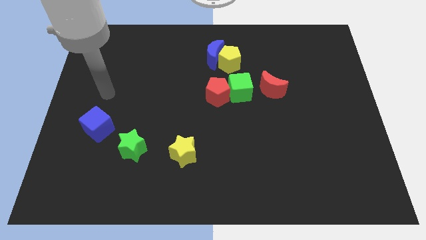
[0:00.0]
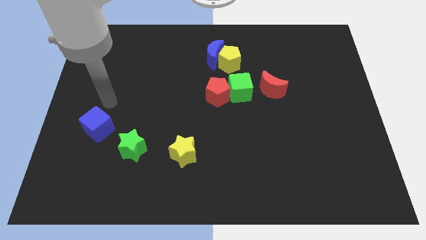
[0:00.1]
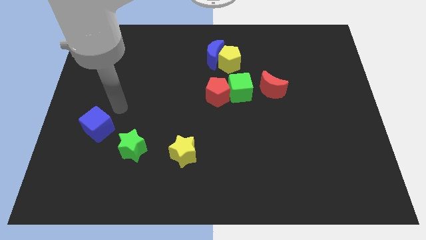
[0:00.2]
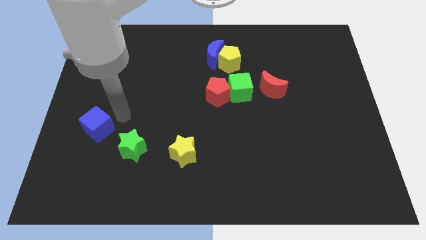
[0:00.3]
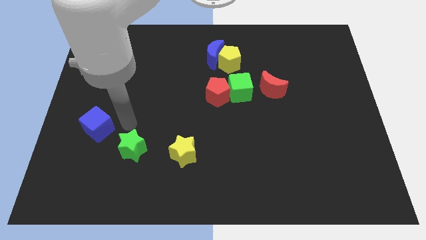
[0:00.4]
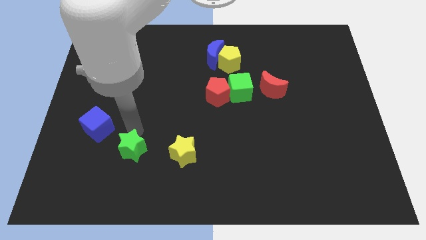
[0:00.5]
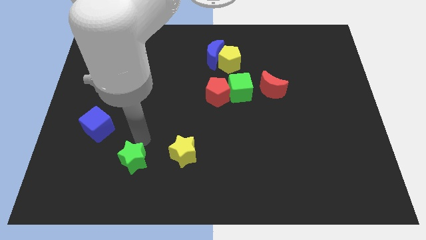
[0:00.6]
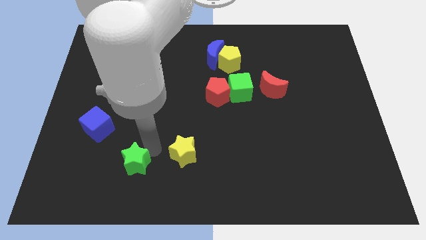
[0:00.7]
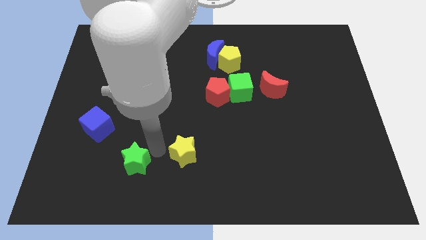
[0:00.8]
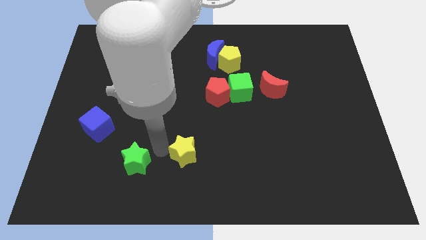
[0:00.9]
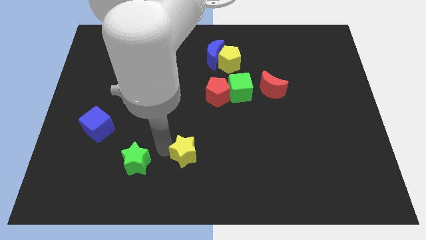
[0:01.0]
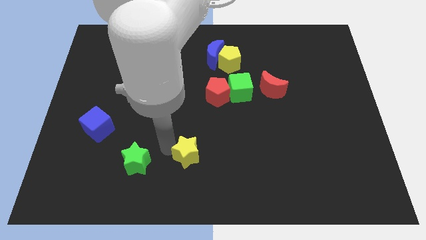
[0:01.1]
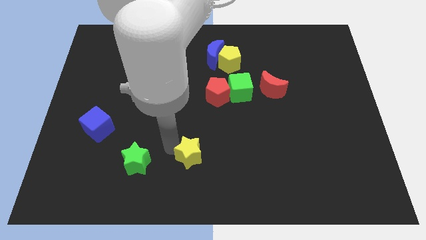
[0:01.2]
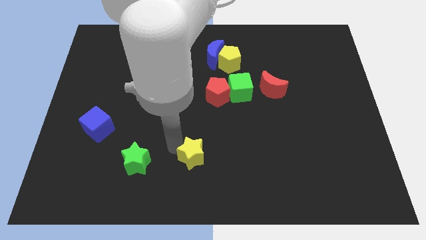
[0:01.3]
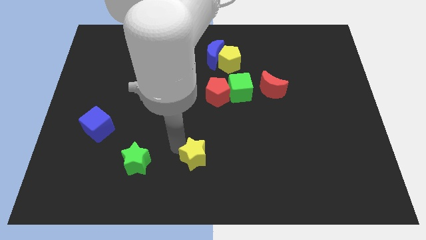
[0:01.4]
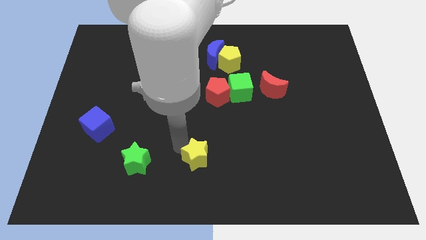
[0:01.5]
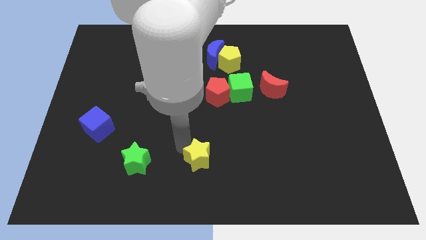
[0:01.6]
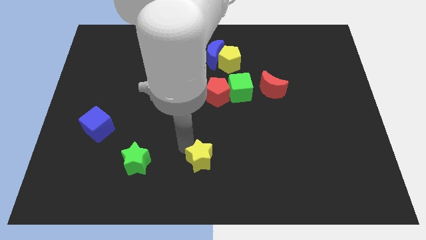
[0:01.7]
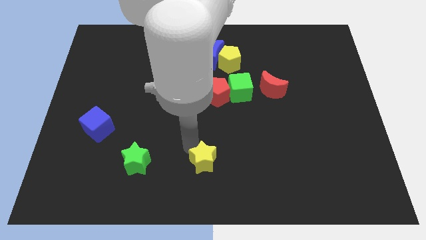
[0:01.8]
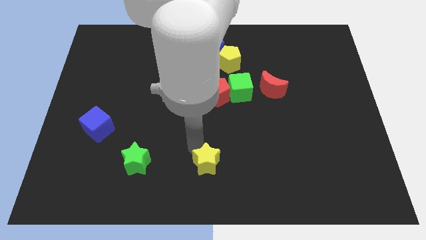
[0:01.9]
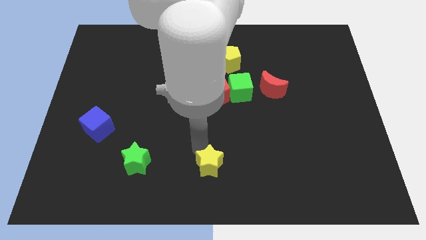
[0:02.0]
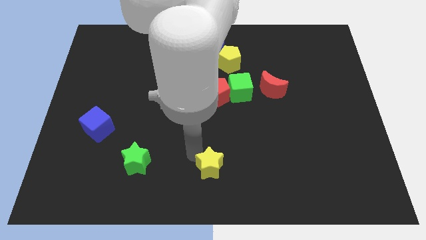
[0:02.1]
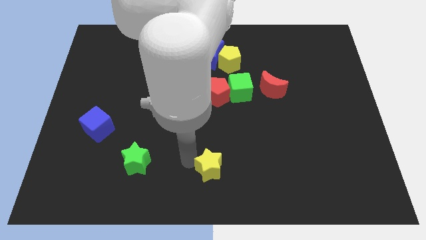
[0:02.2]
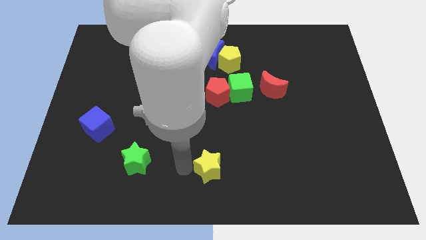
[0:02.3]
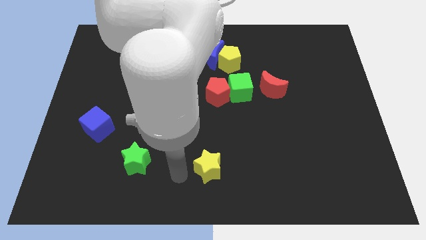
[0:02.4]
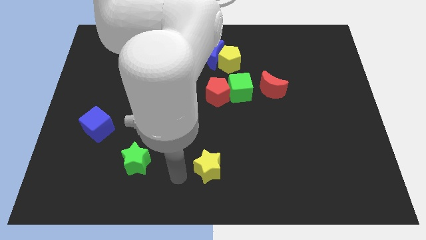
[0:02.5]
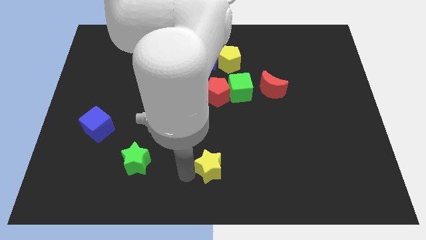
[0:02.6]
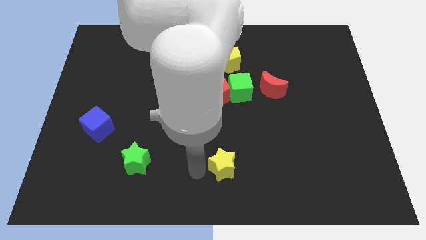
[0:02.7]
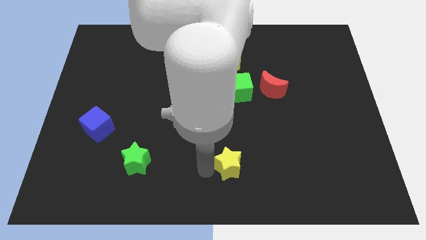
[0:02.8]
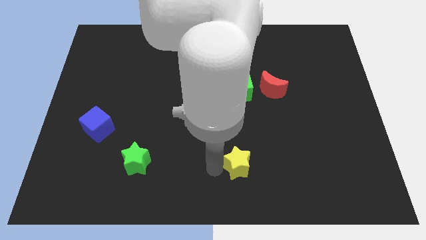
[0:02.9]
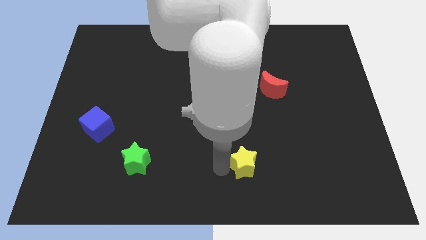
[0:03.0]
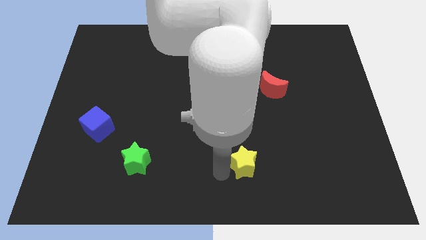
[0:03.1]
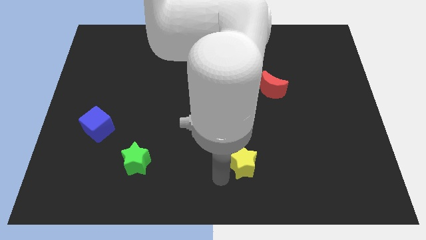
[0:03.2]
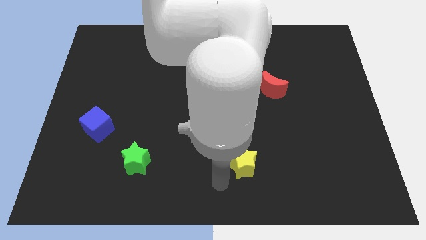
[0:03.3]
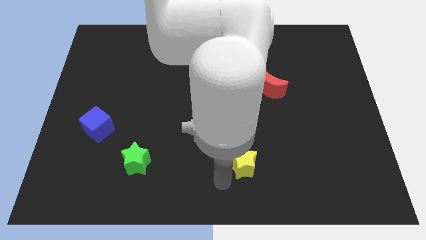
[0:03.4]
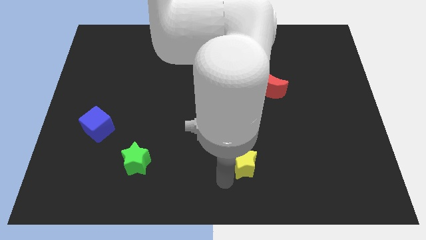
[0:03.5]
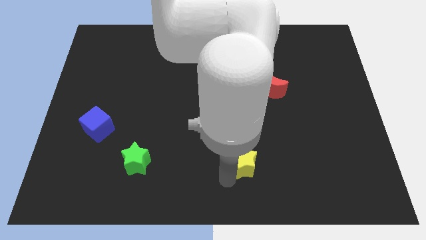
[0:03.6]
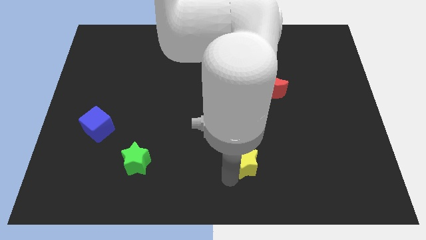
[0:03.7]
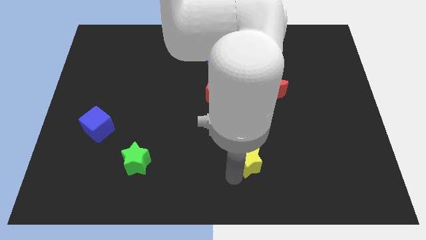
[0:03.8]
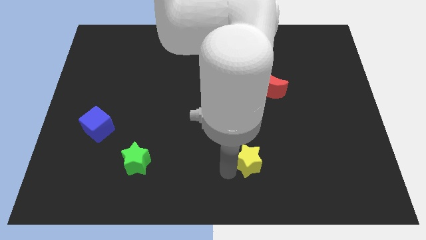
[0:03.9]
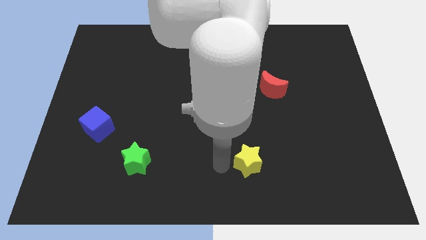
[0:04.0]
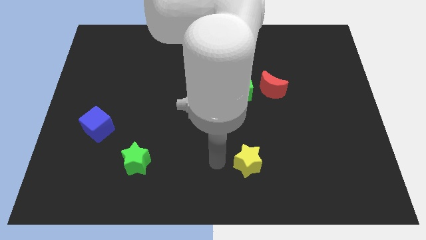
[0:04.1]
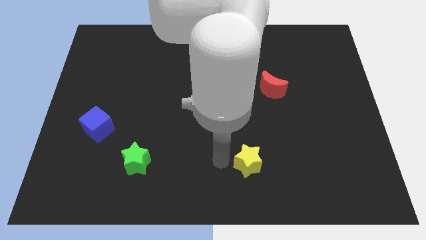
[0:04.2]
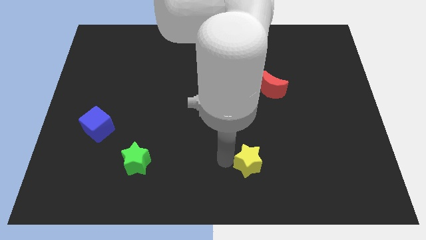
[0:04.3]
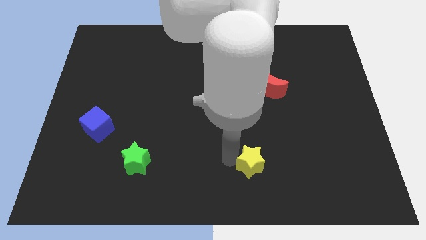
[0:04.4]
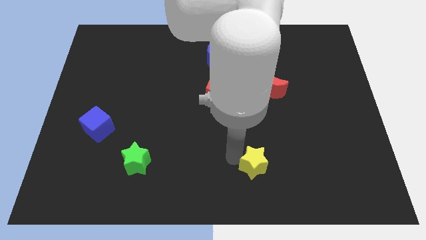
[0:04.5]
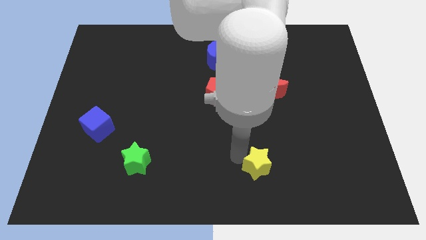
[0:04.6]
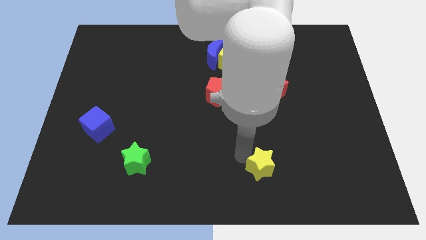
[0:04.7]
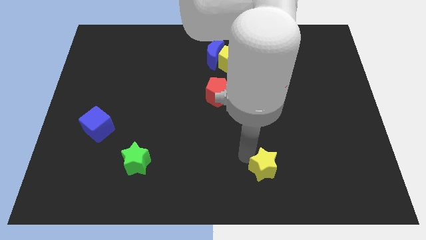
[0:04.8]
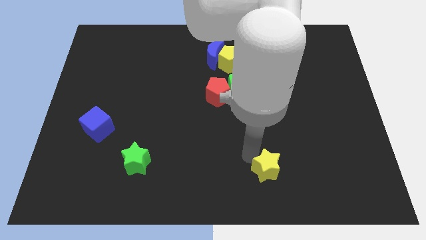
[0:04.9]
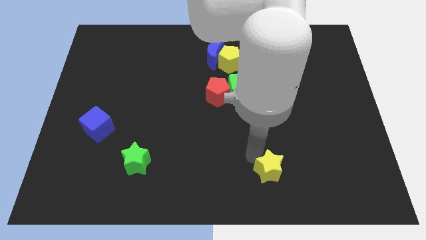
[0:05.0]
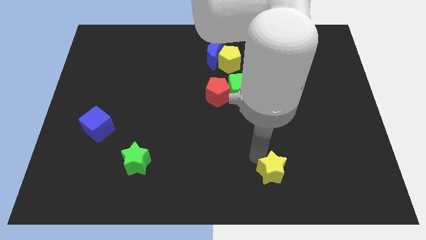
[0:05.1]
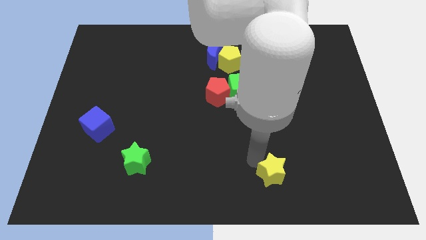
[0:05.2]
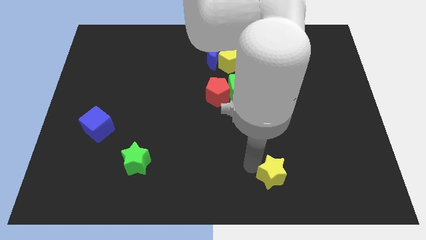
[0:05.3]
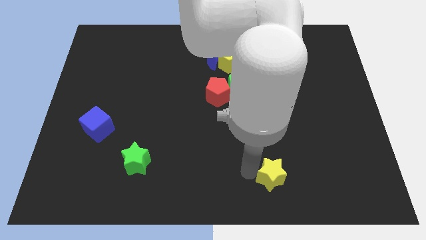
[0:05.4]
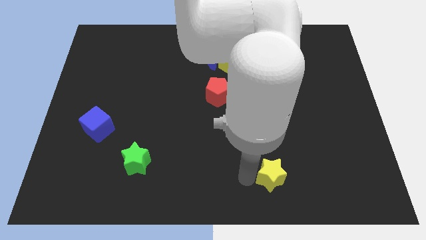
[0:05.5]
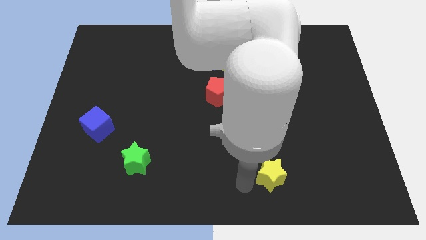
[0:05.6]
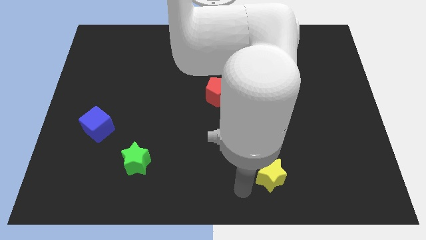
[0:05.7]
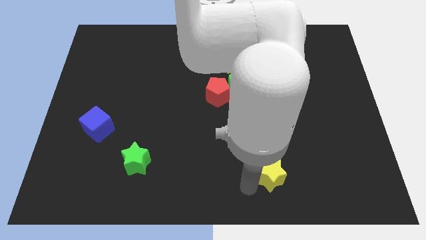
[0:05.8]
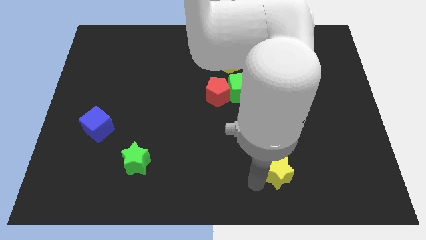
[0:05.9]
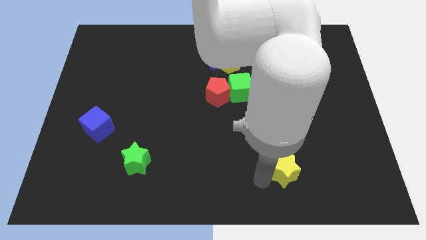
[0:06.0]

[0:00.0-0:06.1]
move the yellow star to the right

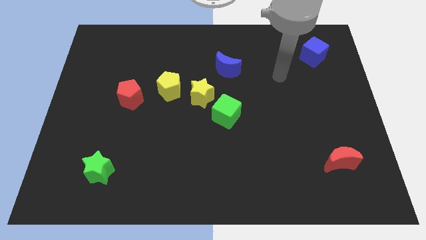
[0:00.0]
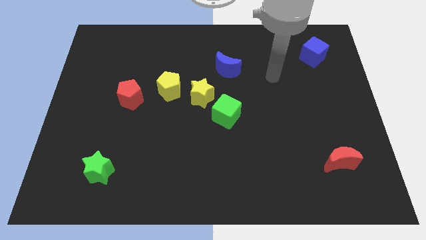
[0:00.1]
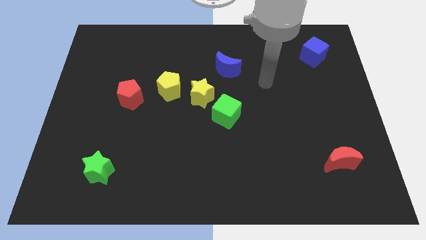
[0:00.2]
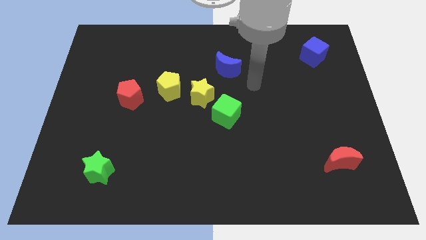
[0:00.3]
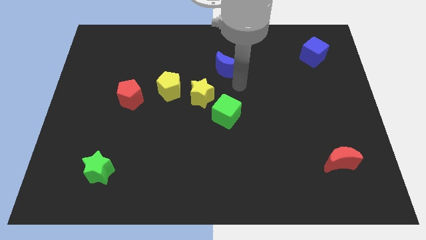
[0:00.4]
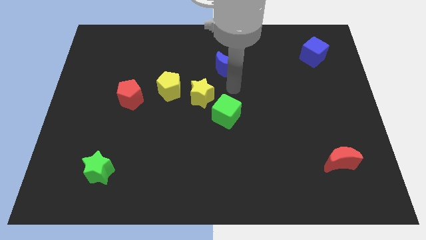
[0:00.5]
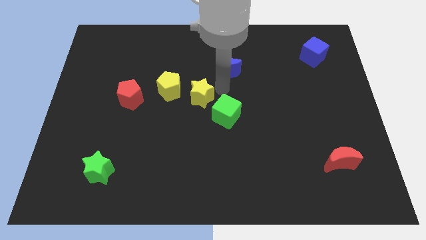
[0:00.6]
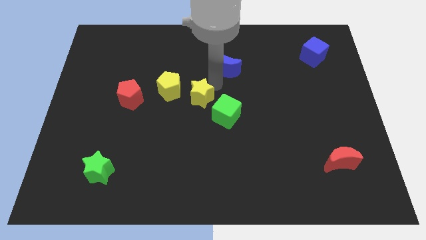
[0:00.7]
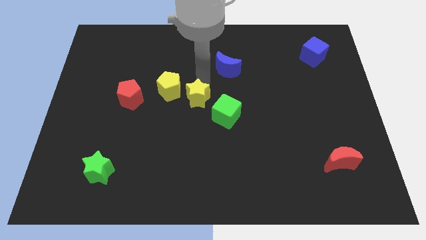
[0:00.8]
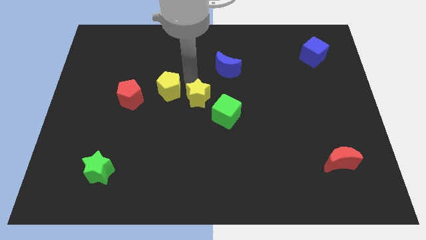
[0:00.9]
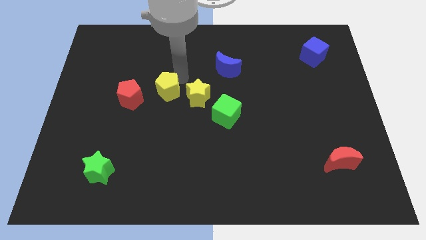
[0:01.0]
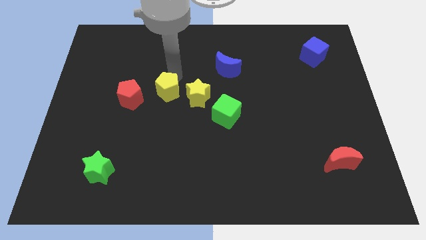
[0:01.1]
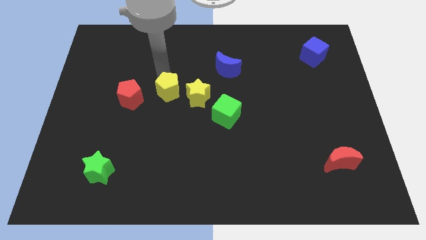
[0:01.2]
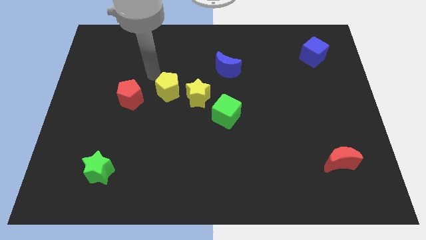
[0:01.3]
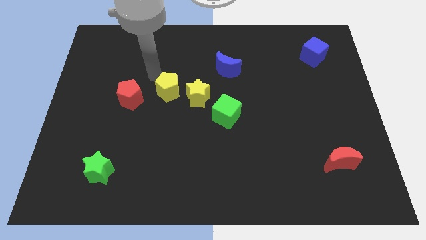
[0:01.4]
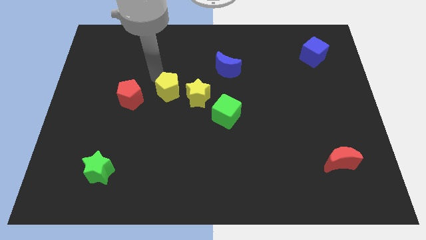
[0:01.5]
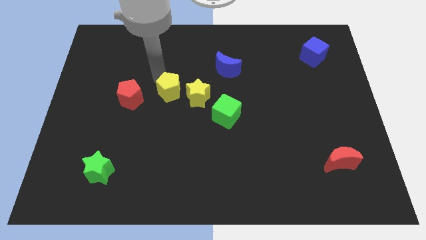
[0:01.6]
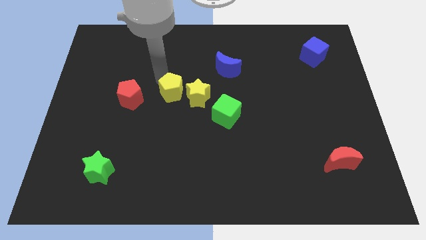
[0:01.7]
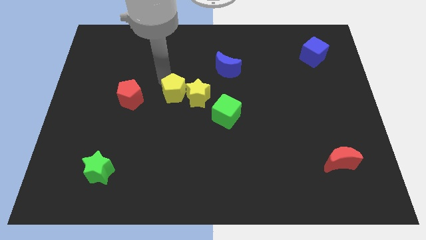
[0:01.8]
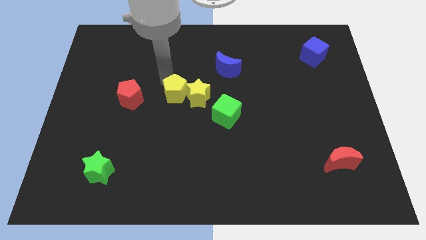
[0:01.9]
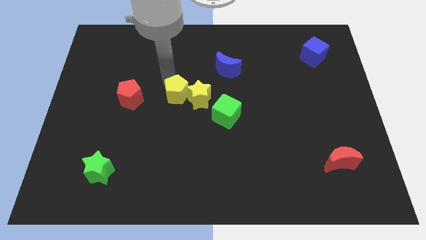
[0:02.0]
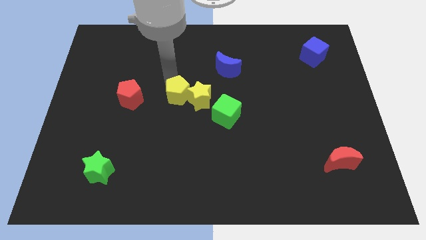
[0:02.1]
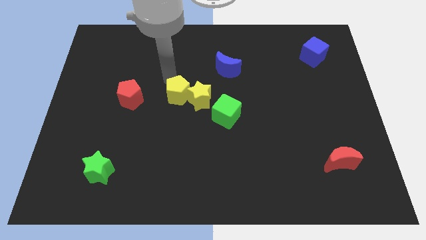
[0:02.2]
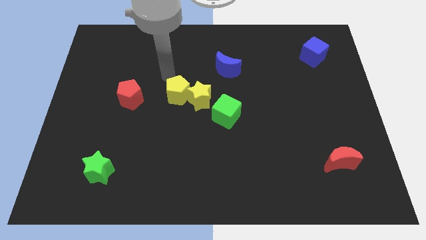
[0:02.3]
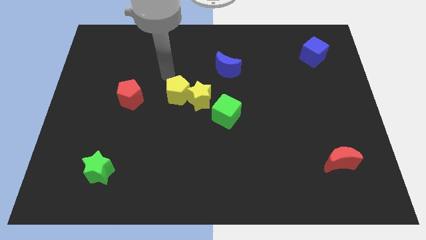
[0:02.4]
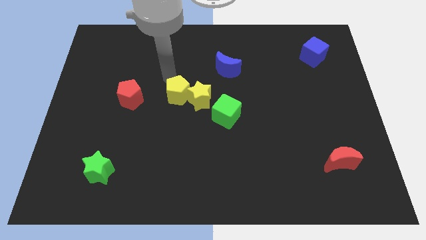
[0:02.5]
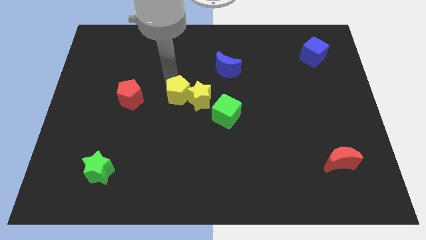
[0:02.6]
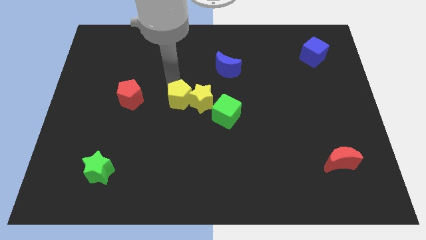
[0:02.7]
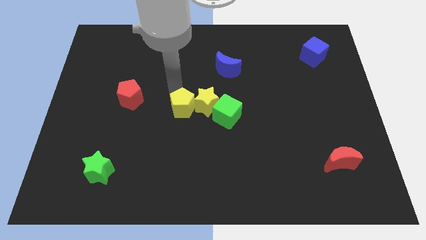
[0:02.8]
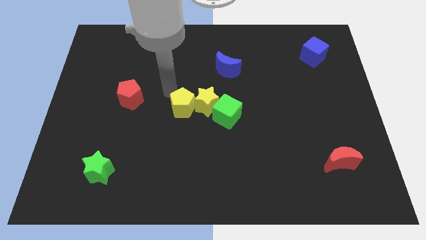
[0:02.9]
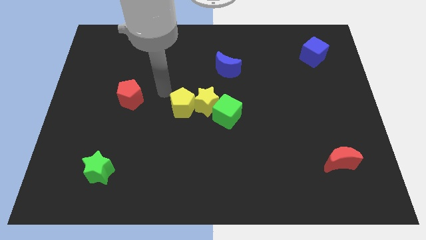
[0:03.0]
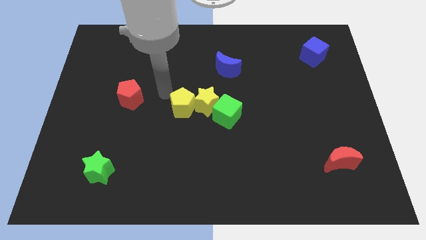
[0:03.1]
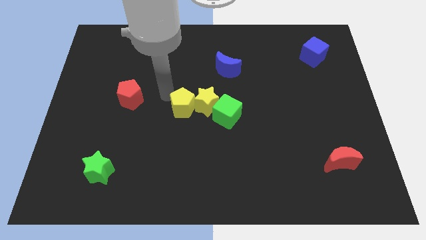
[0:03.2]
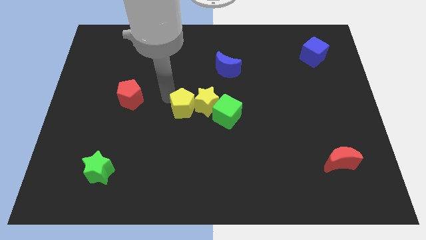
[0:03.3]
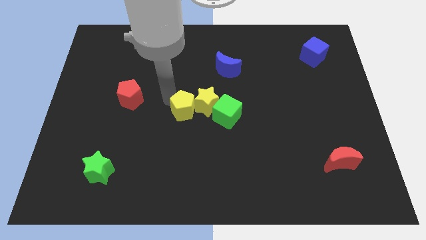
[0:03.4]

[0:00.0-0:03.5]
move the yellow pentagon downwards and then to the right somewhat
